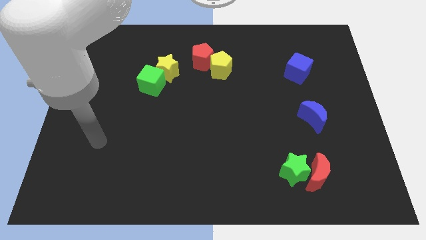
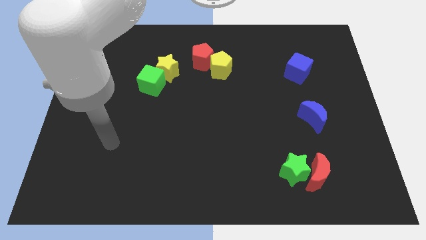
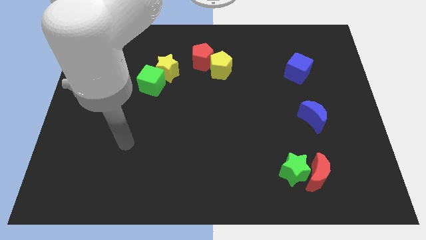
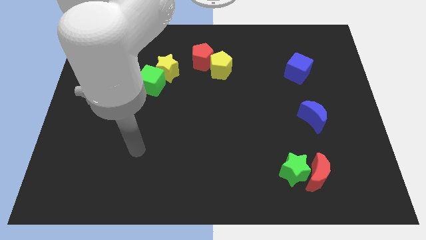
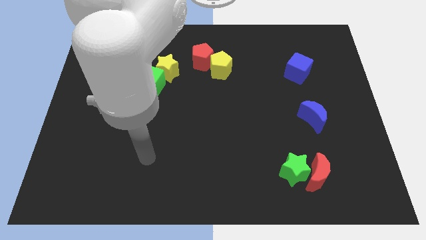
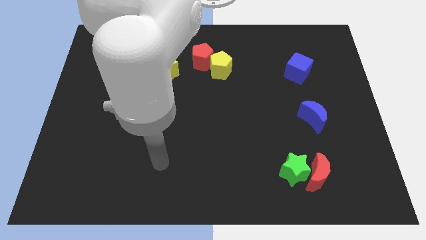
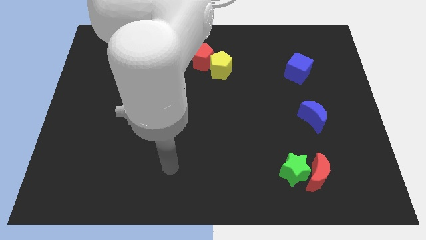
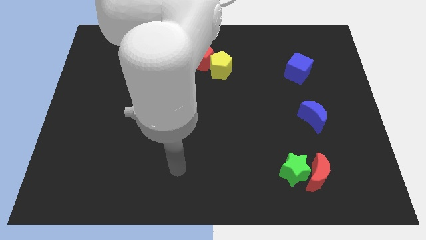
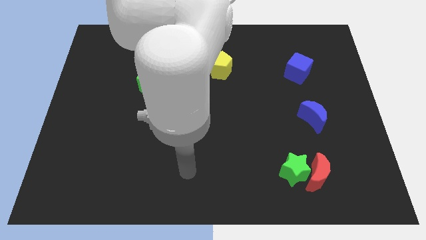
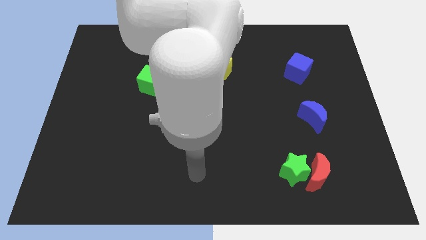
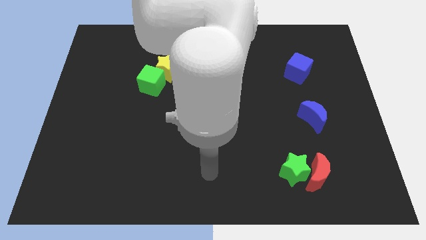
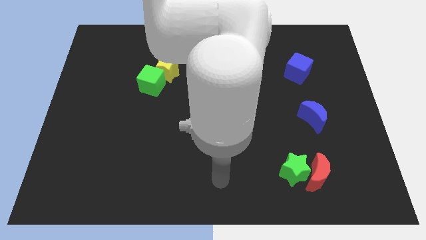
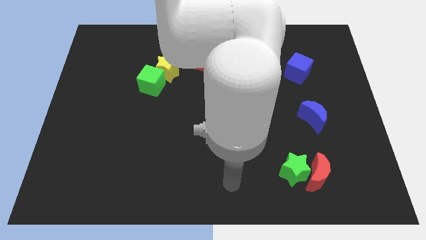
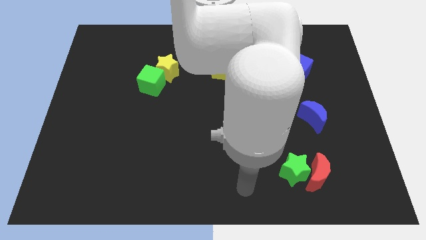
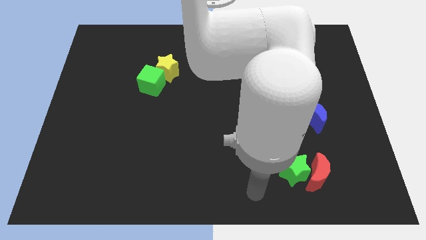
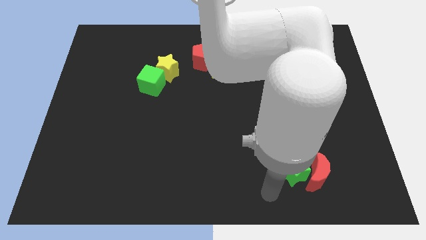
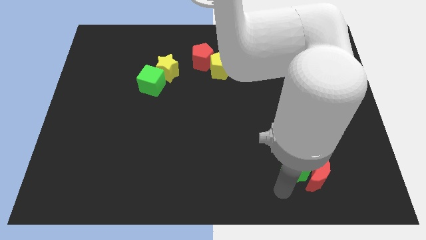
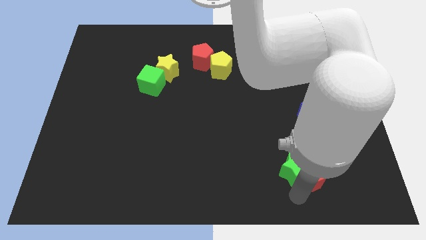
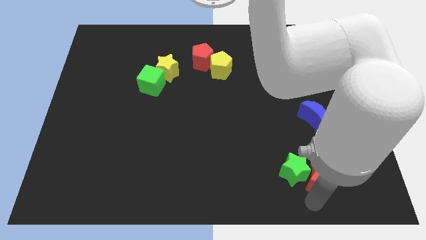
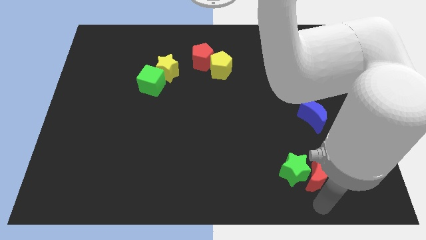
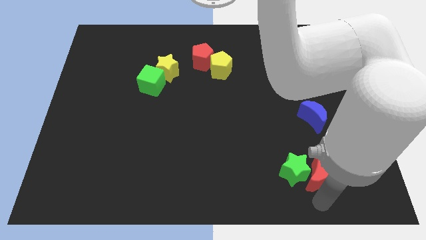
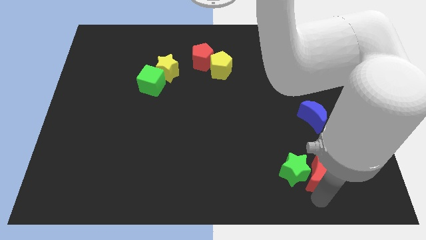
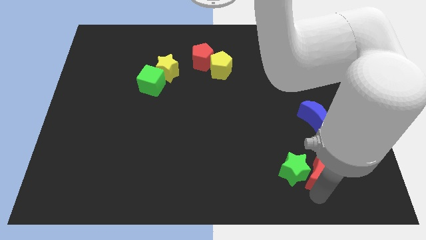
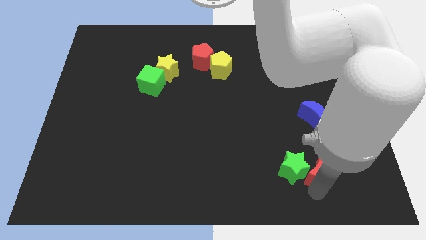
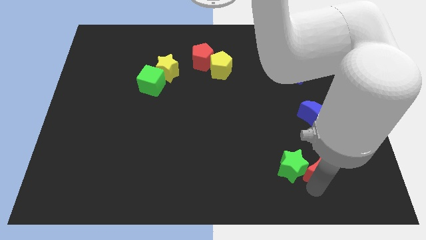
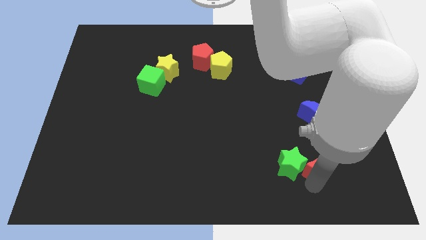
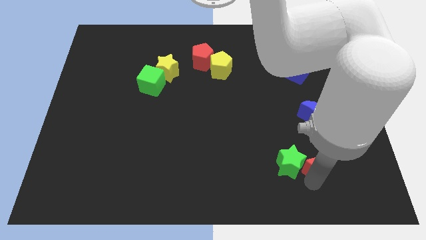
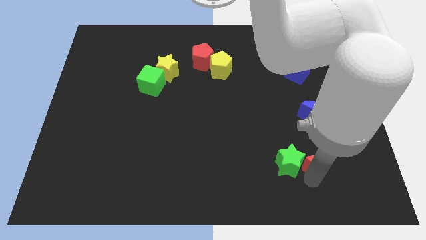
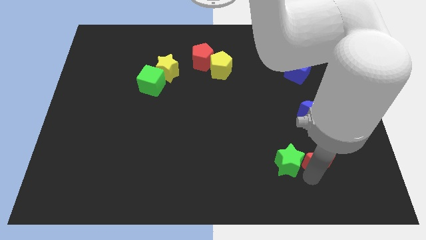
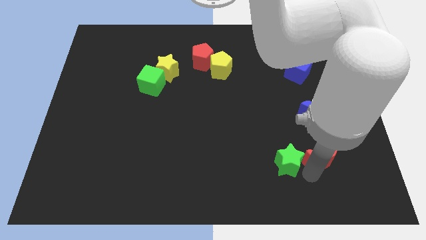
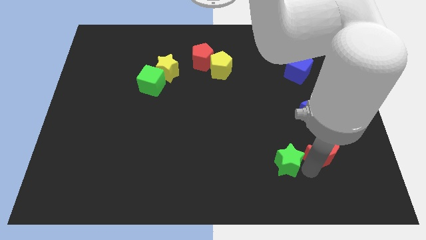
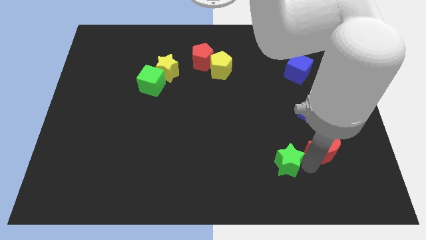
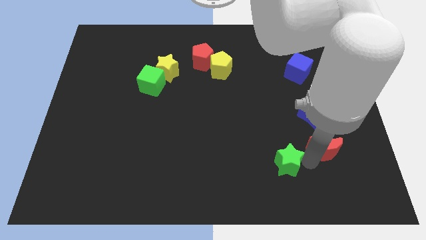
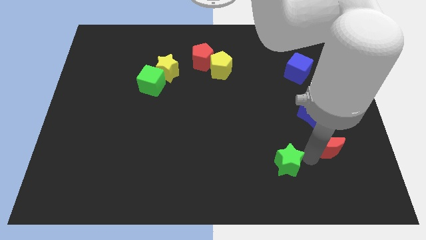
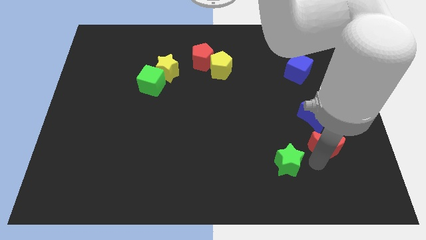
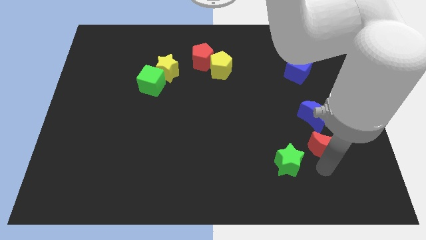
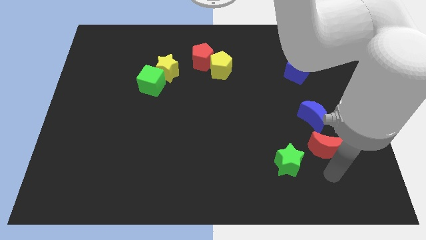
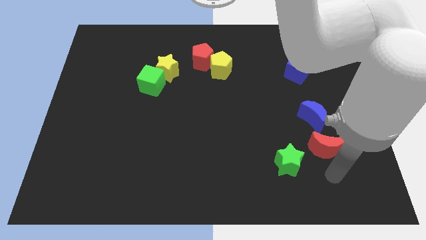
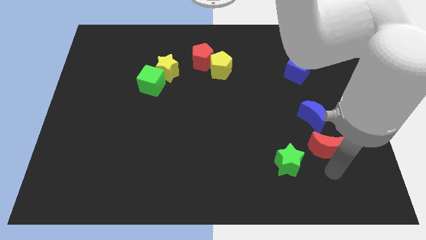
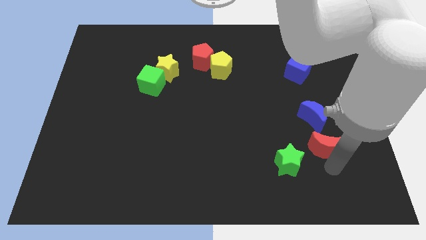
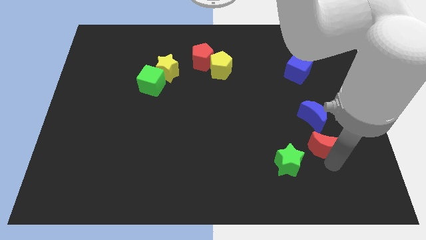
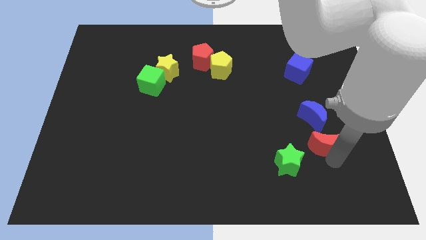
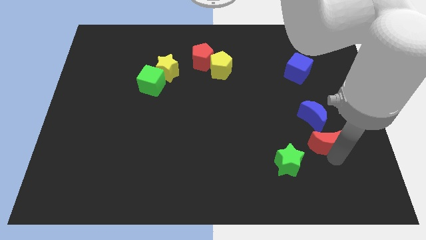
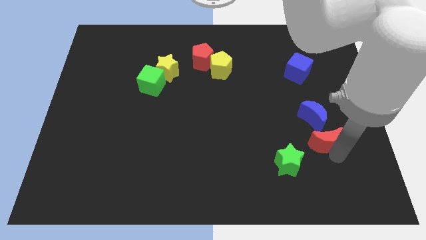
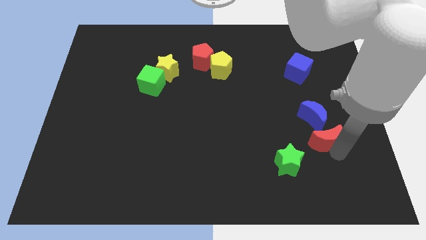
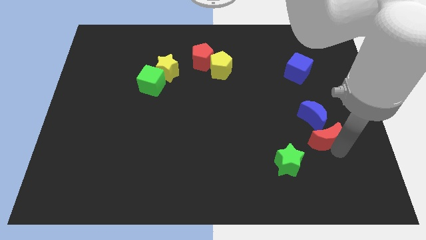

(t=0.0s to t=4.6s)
slide the red moon towards the blue moon

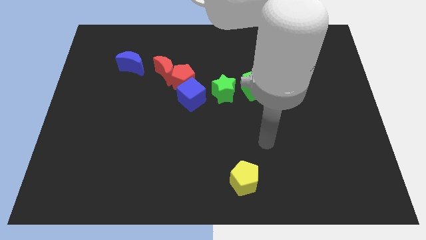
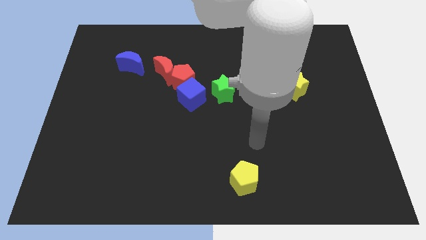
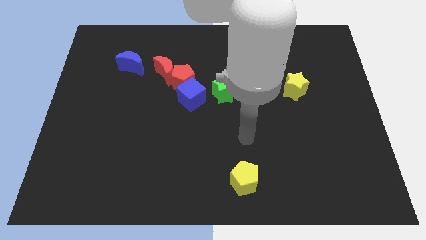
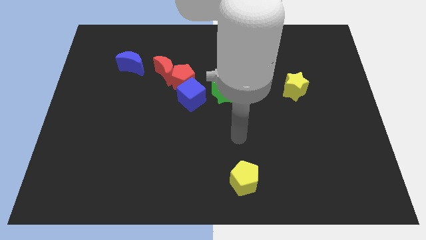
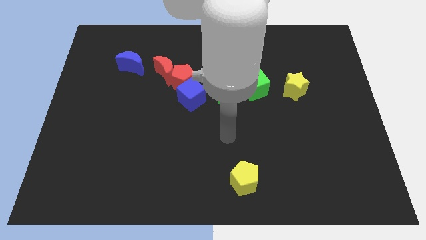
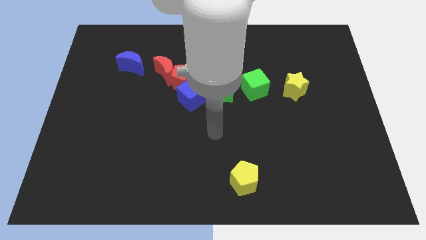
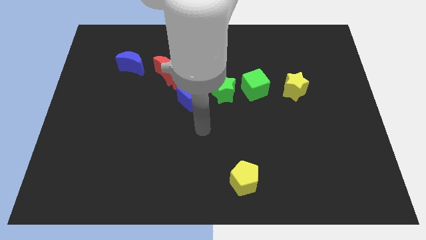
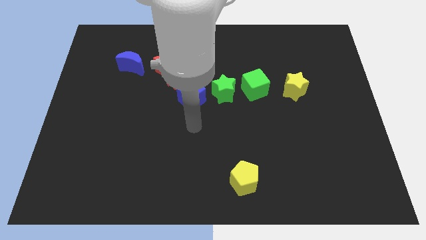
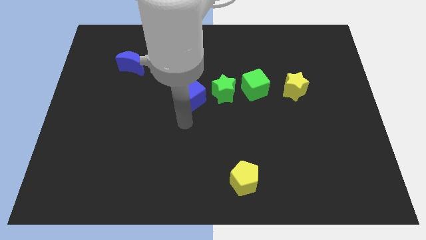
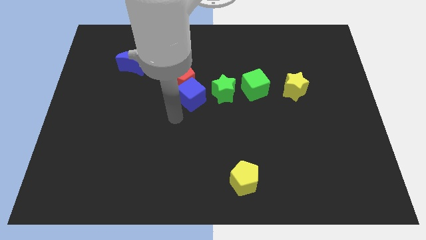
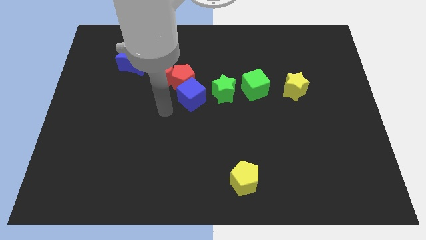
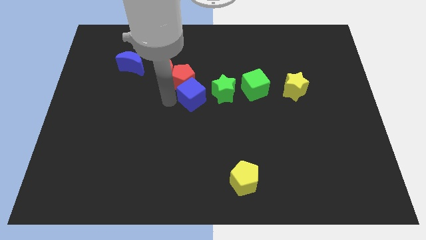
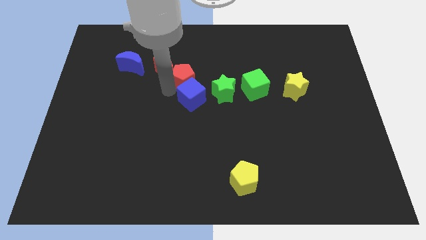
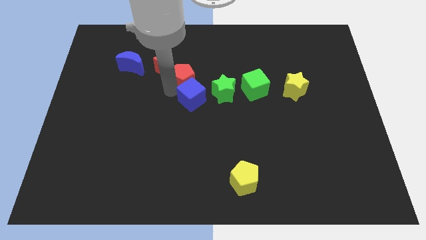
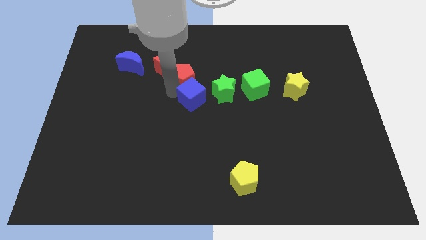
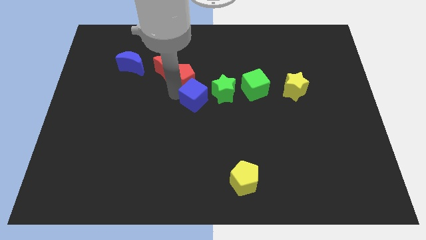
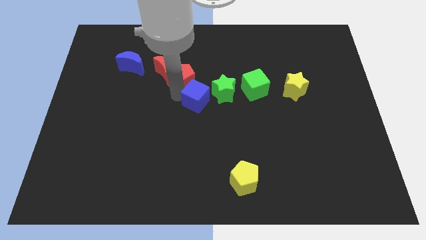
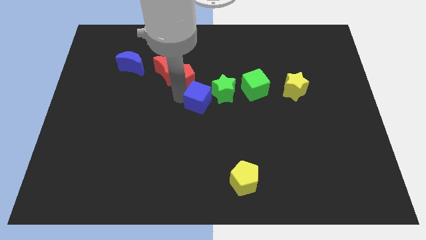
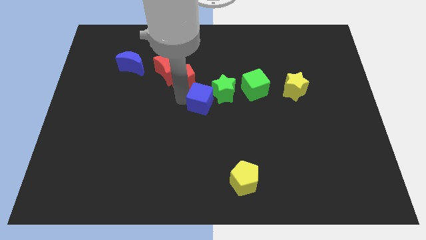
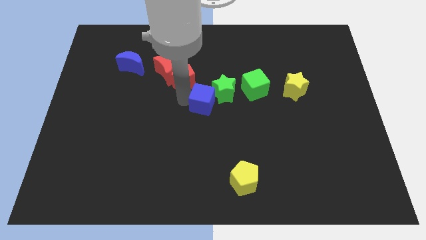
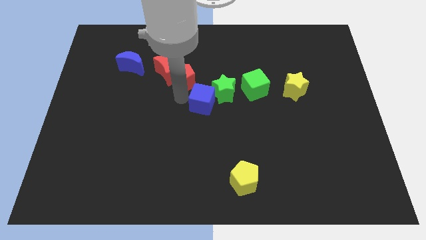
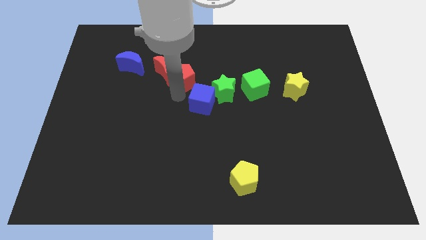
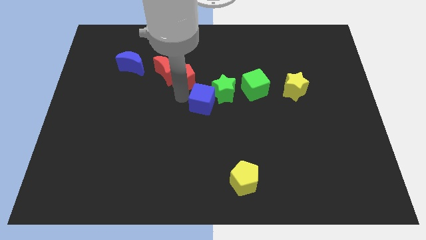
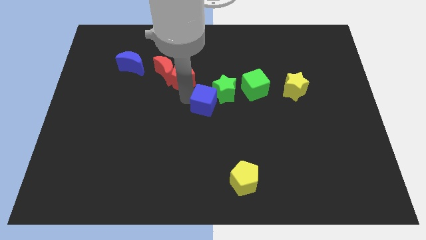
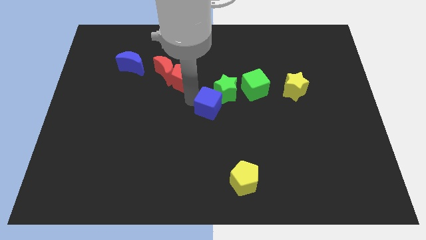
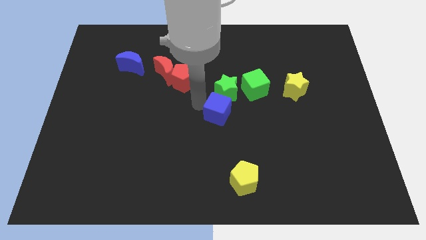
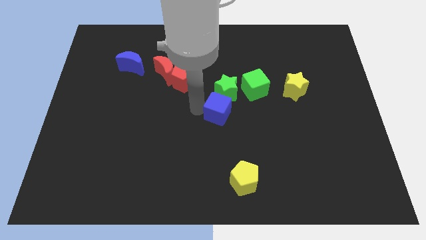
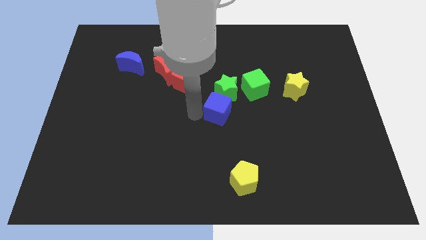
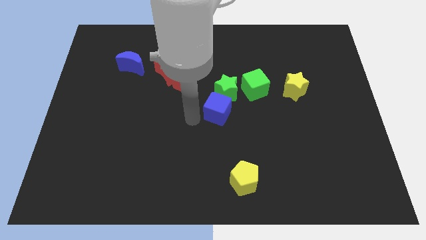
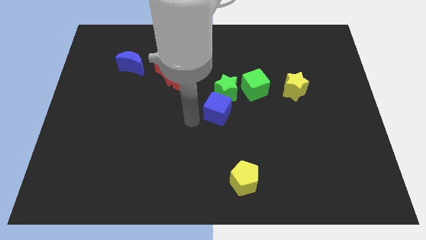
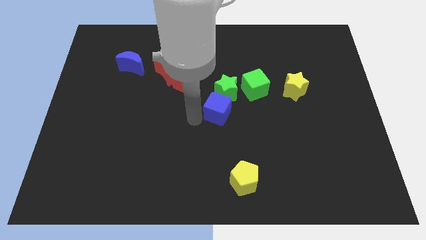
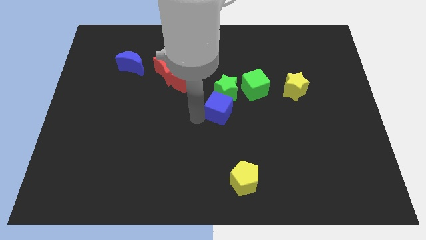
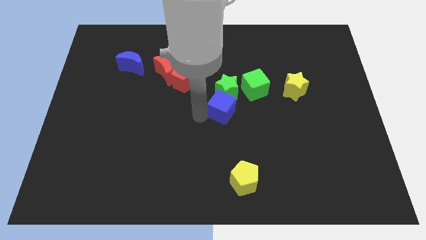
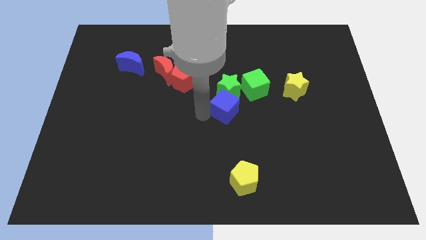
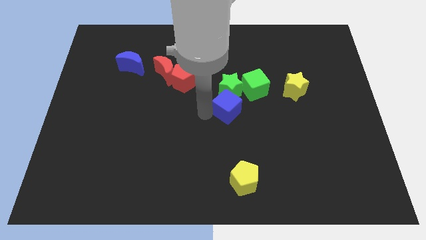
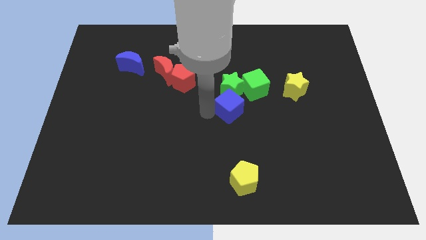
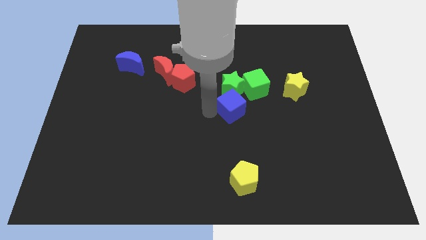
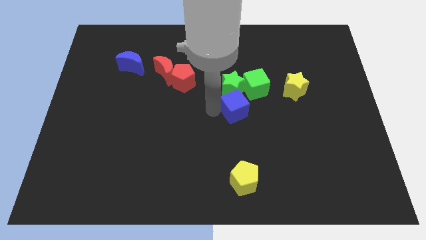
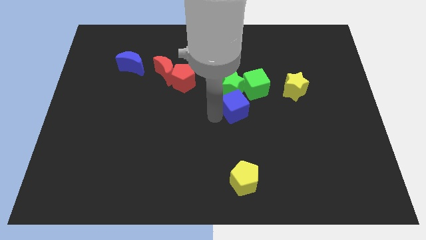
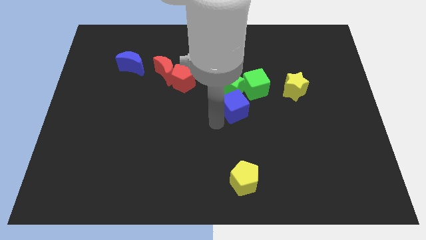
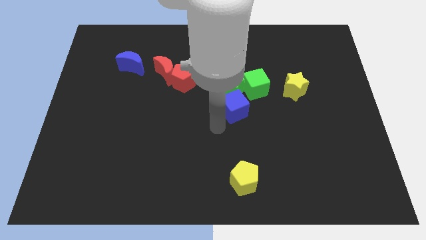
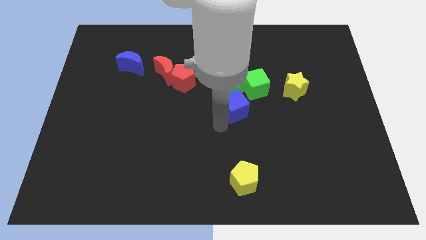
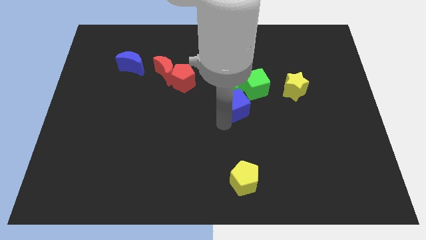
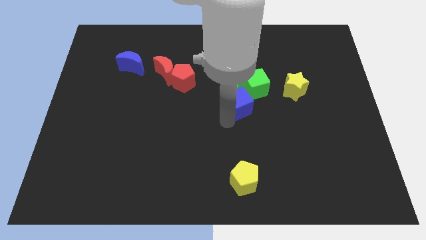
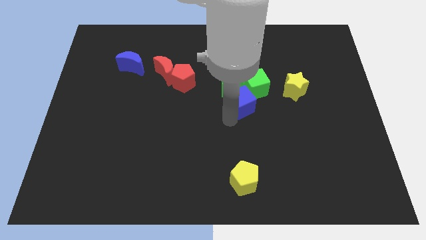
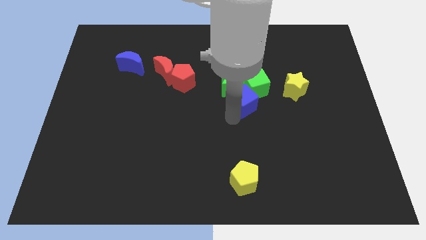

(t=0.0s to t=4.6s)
push the blue cube close to the green cube
